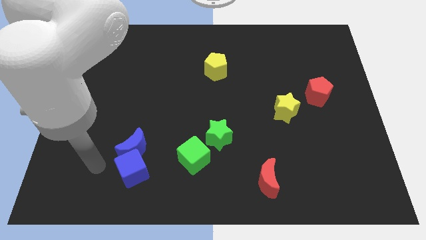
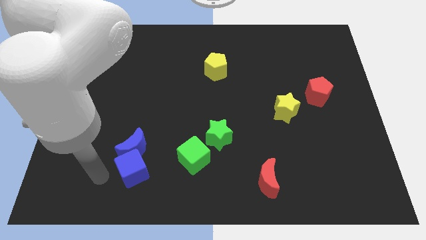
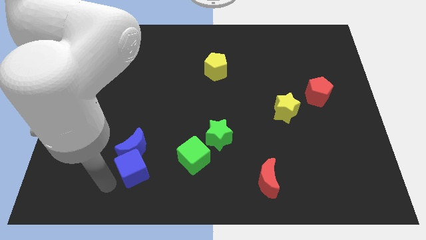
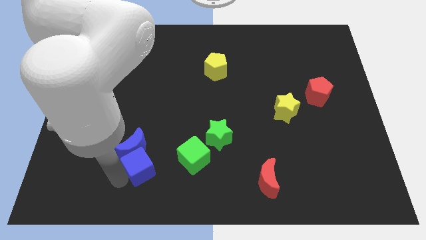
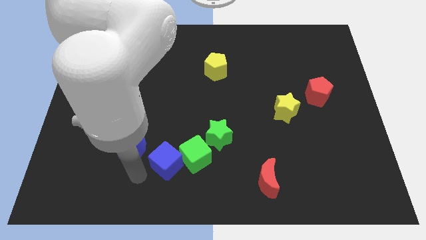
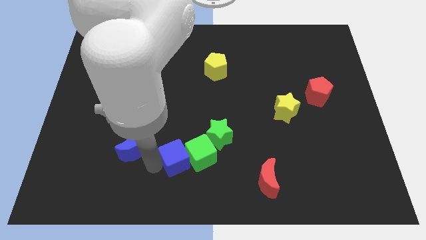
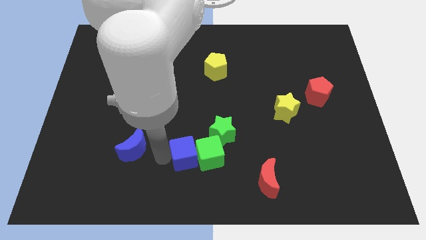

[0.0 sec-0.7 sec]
move the blue moon away from the blue cube

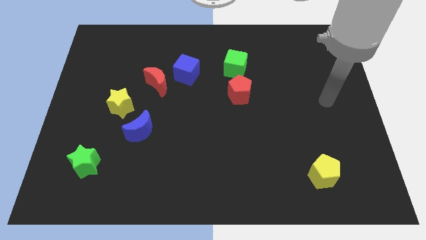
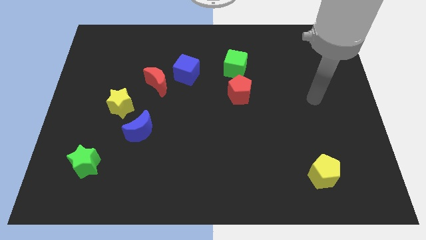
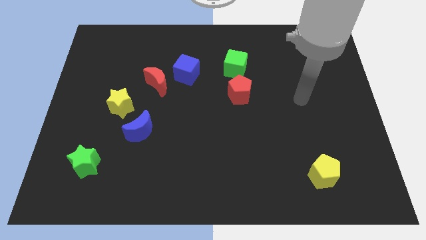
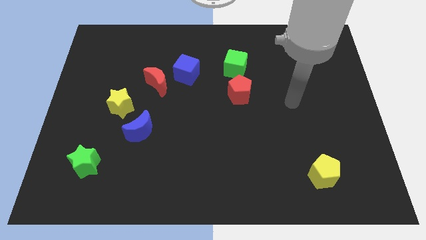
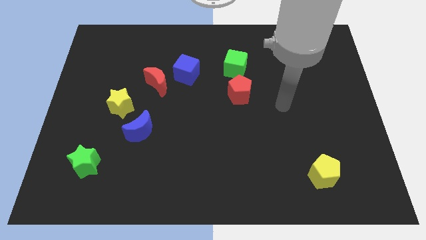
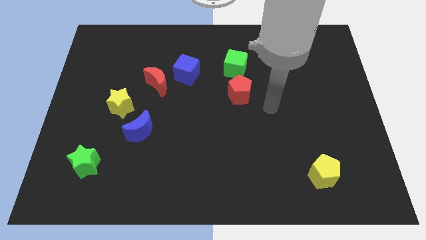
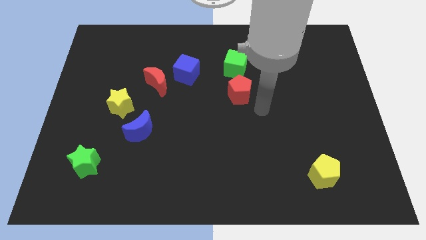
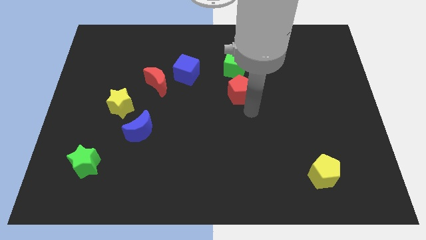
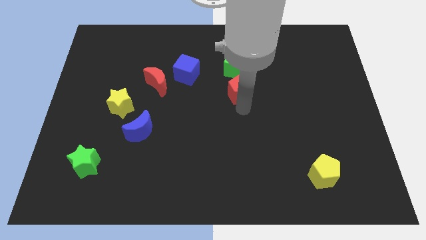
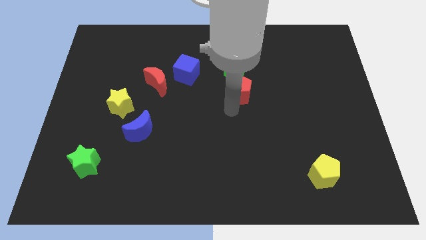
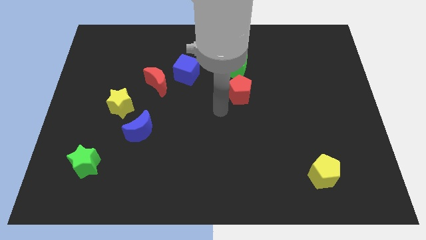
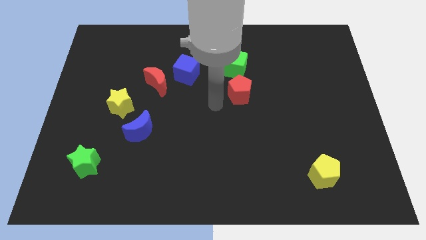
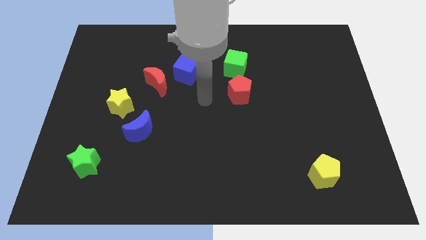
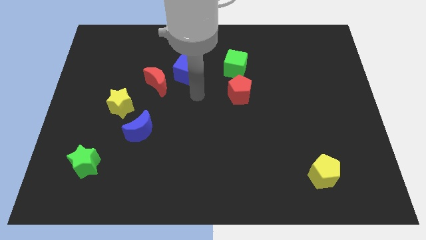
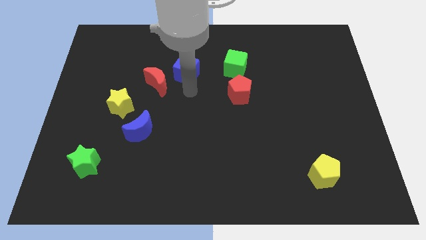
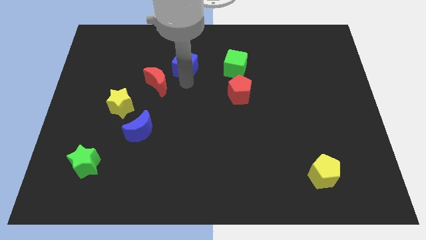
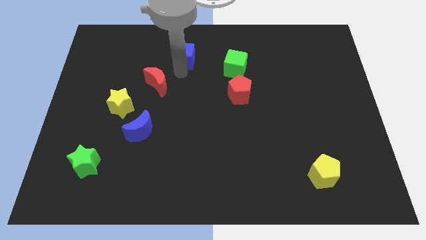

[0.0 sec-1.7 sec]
pull the red moon apart from the blue cube

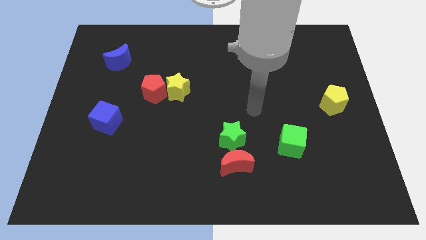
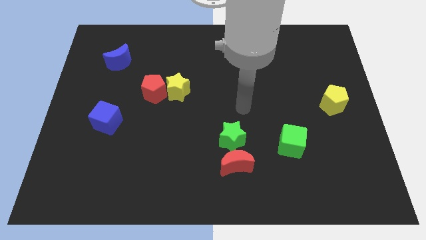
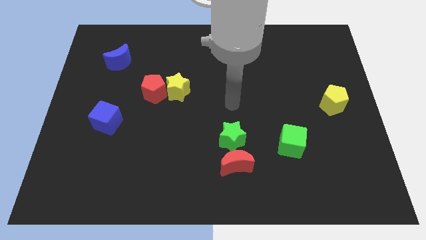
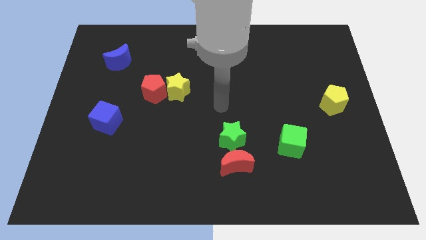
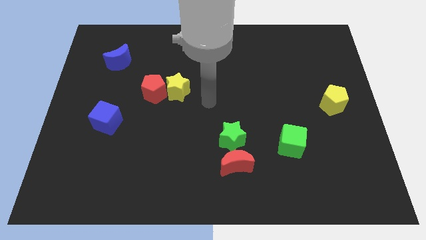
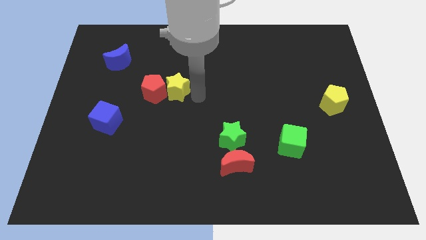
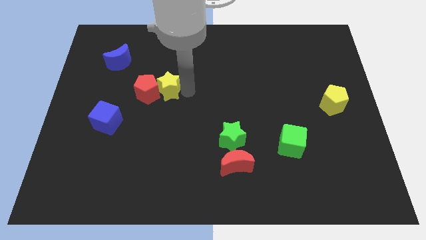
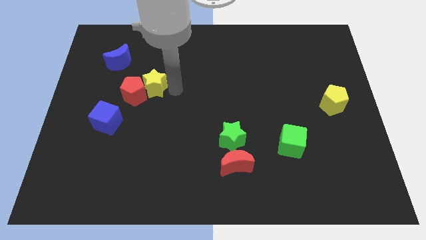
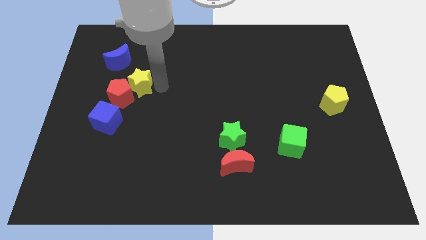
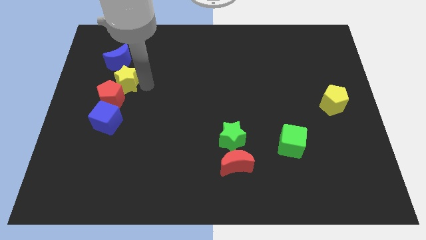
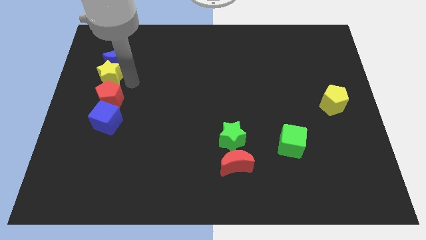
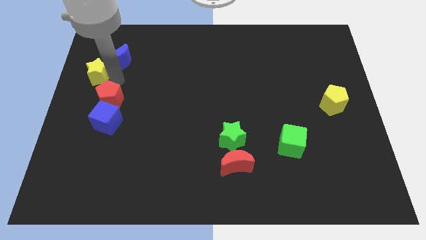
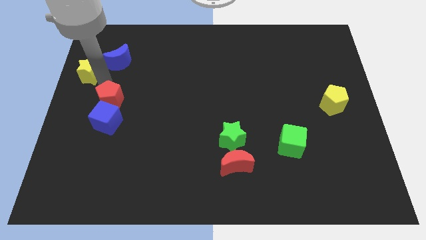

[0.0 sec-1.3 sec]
pull the red pentagon apart from the yellow star

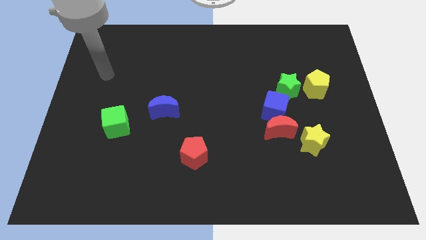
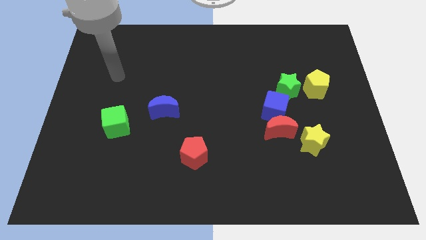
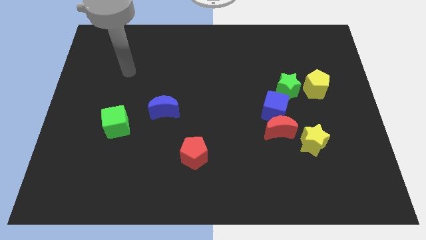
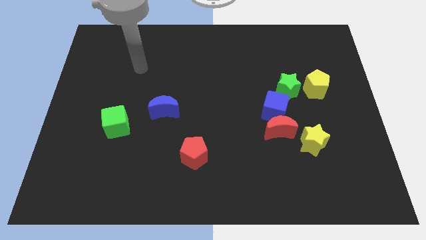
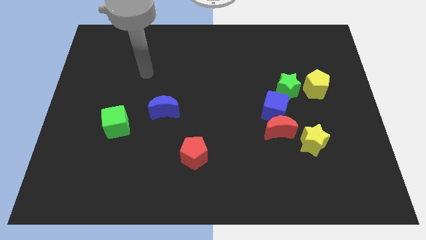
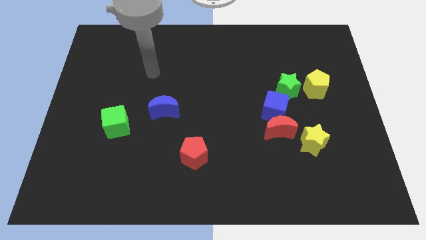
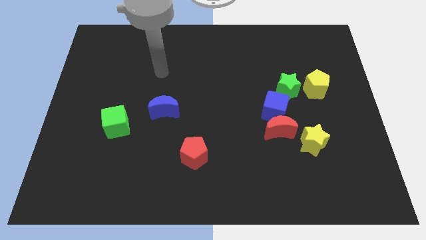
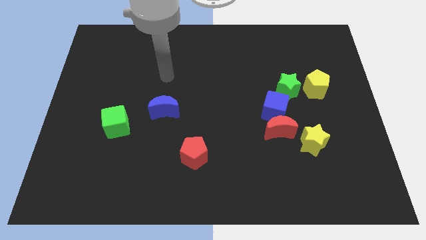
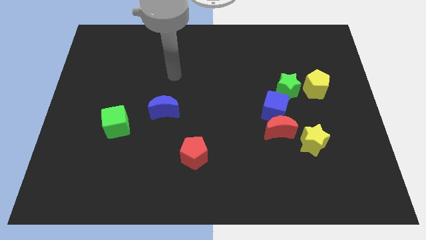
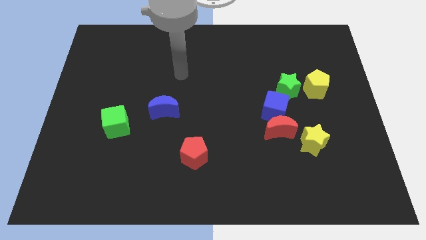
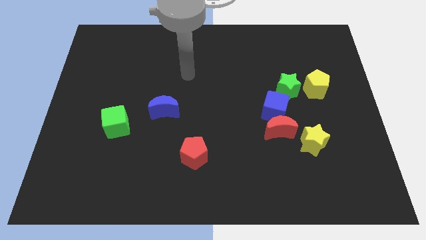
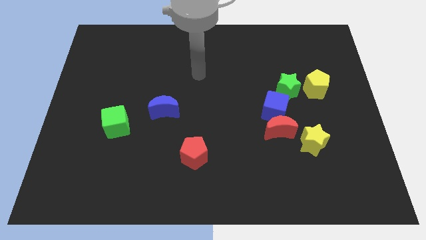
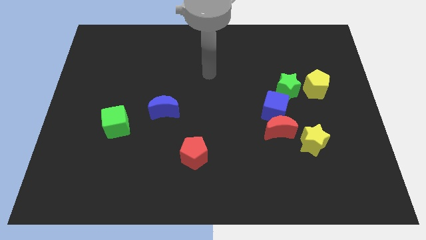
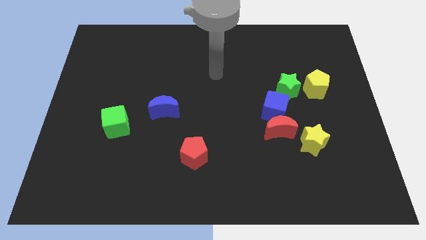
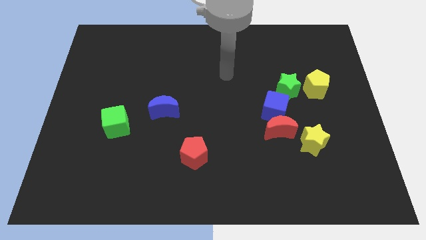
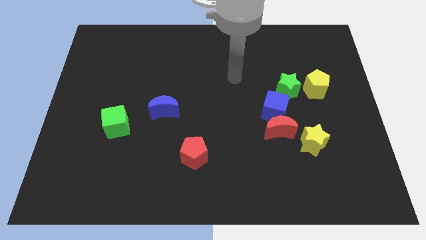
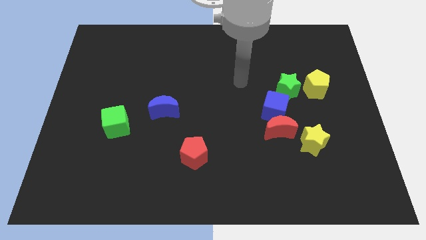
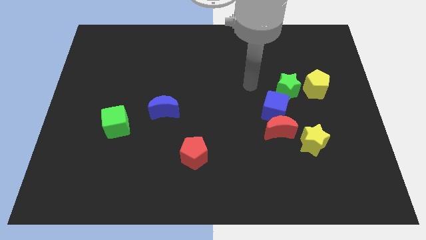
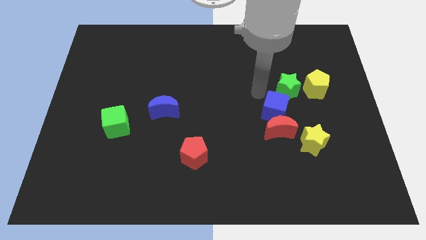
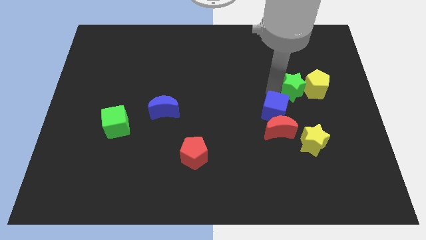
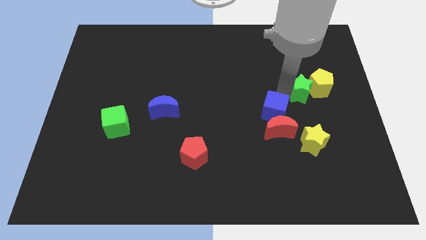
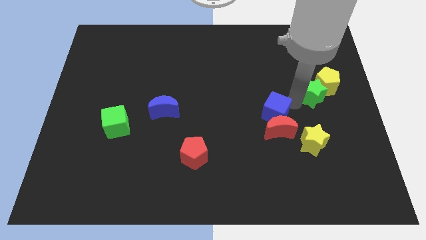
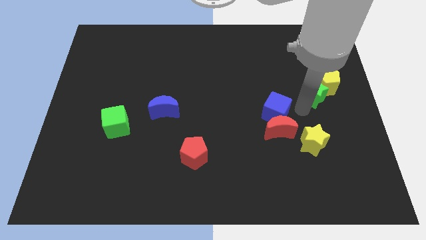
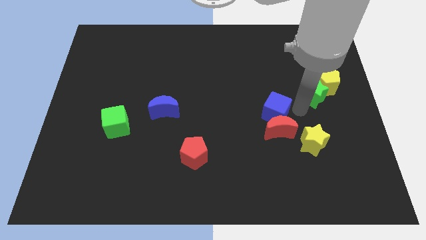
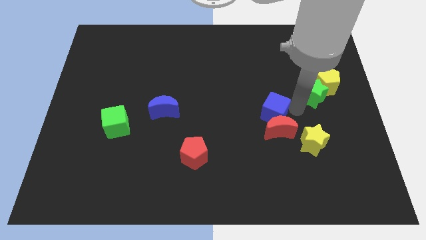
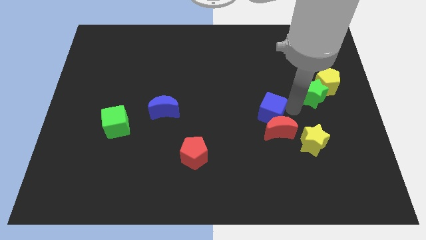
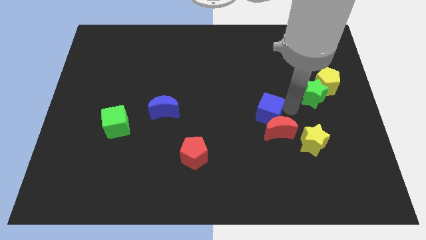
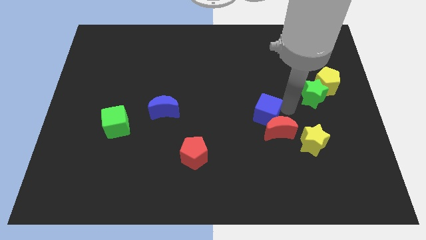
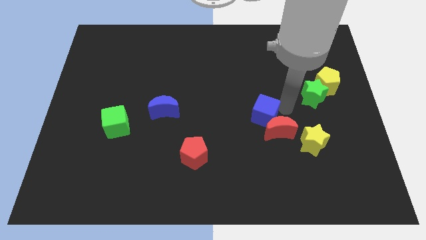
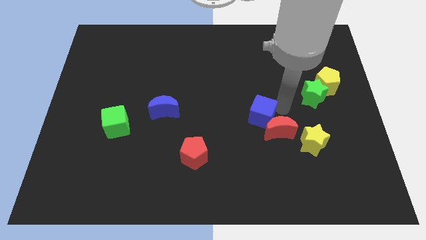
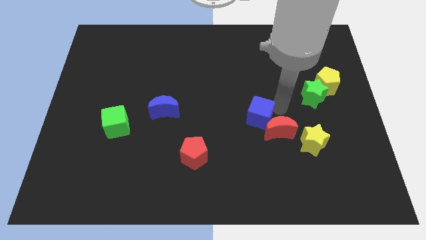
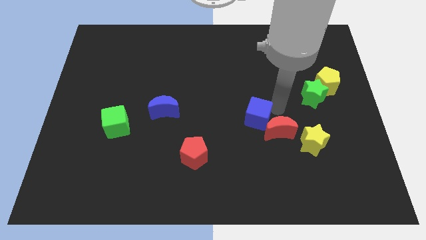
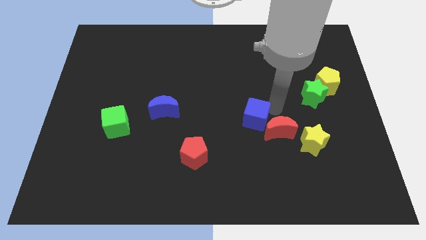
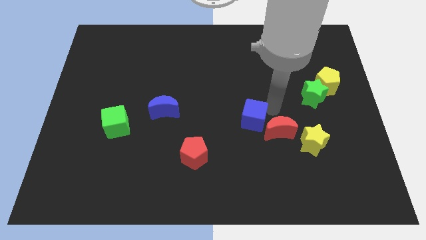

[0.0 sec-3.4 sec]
move the blue cube away from the red moon and green star

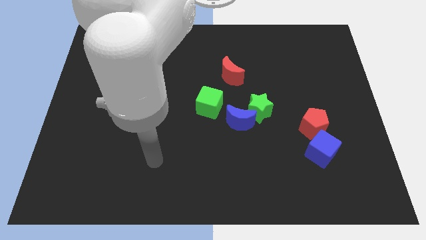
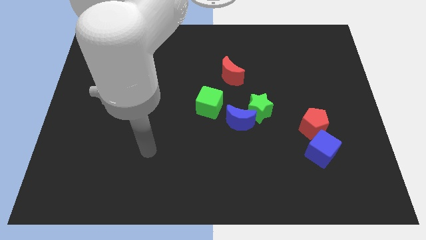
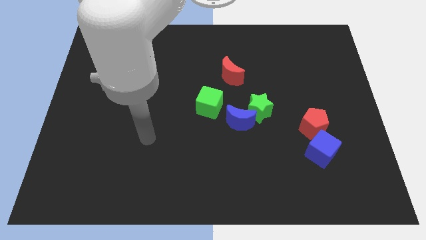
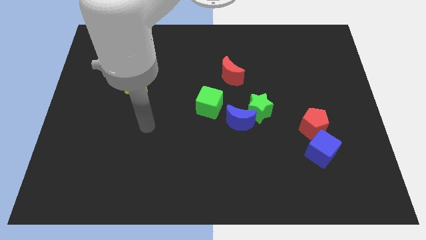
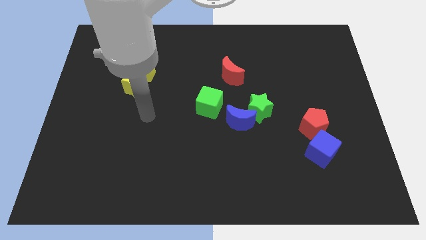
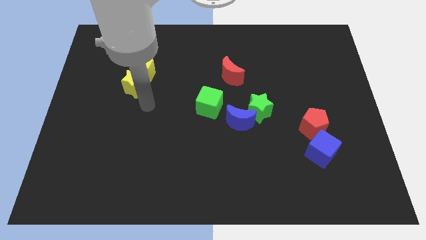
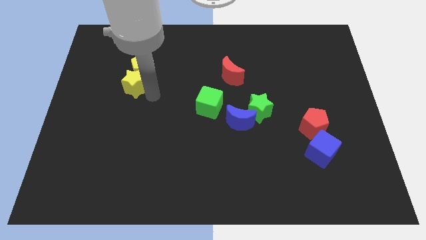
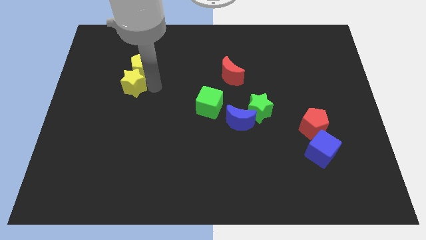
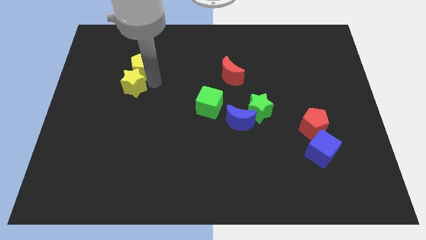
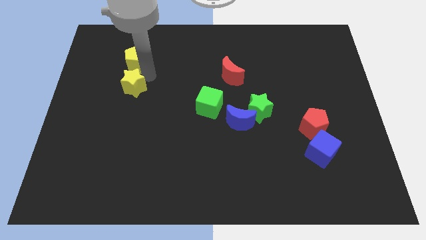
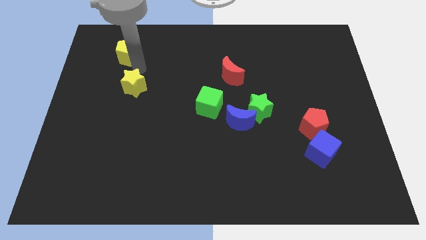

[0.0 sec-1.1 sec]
pull the yellow star apart from the yellow pentagon

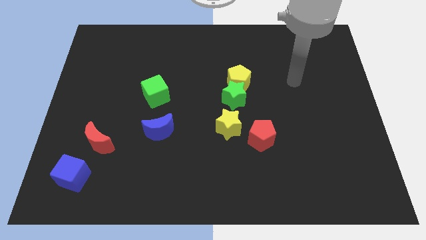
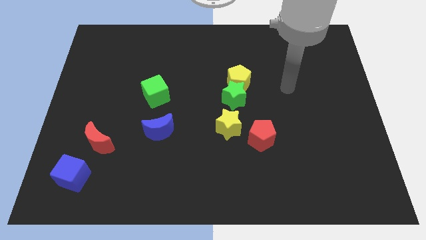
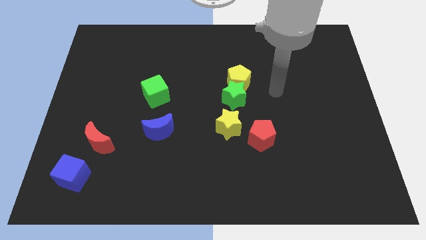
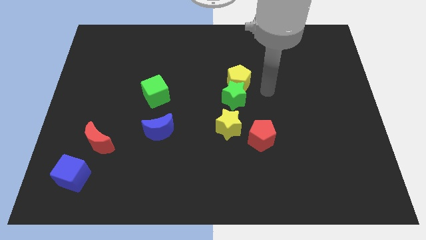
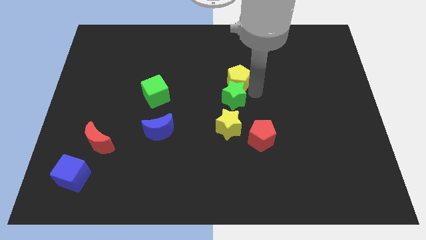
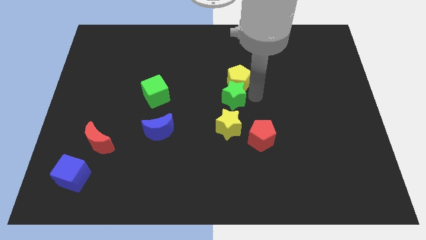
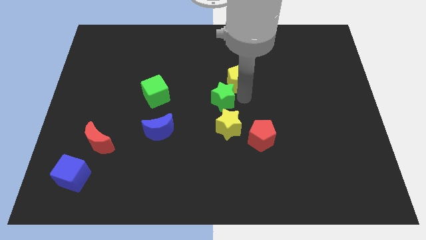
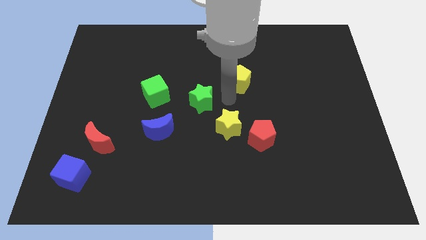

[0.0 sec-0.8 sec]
pull the yellow pentagon apart from the green star

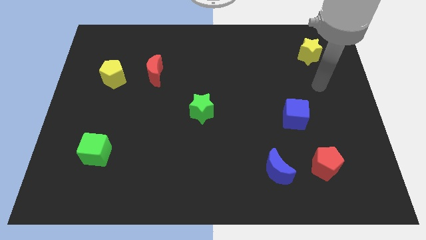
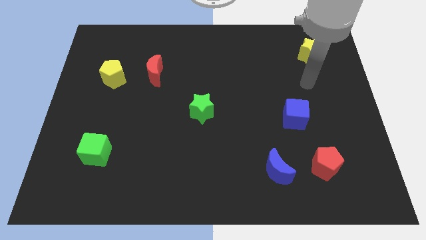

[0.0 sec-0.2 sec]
separate the red moon from the yellow pentagon
